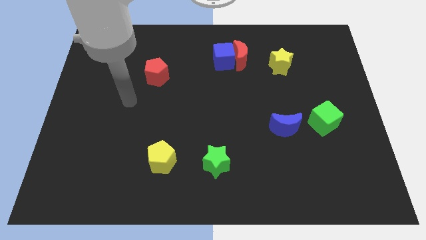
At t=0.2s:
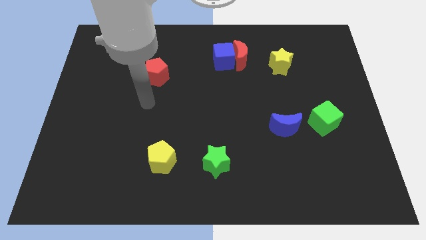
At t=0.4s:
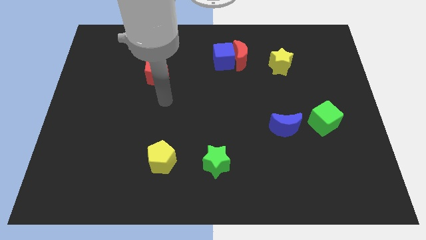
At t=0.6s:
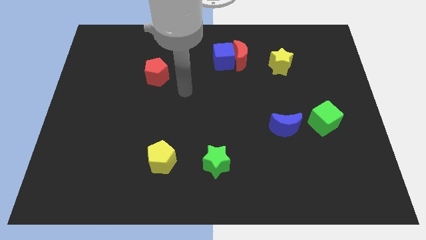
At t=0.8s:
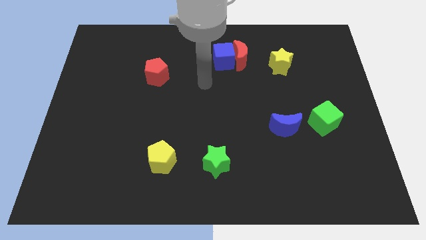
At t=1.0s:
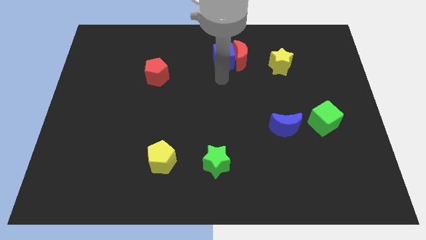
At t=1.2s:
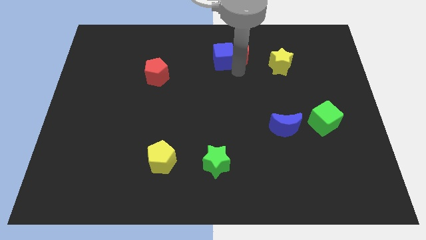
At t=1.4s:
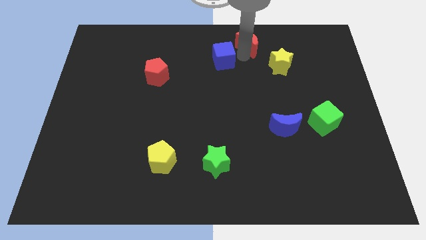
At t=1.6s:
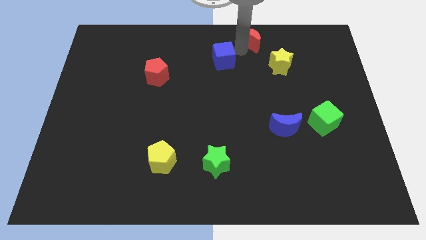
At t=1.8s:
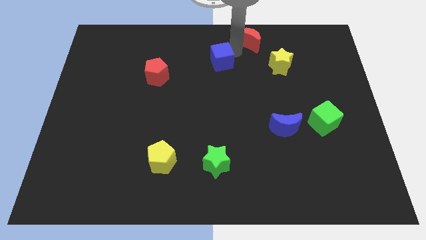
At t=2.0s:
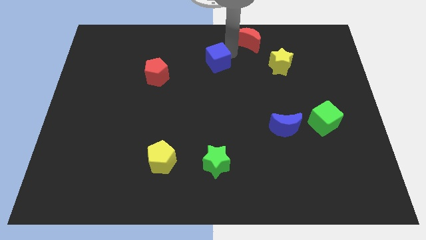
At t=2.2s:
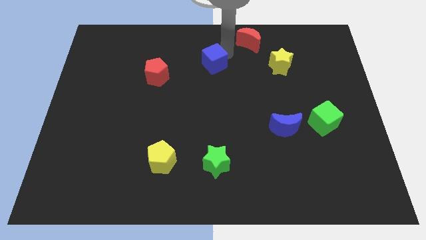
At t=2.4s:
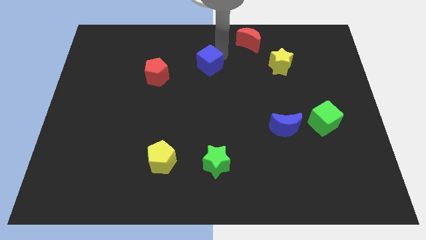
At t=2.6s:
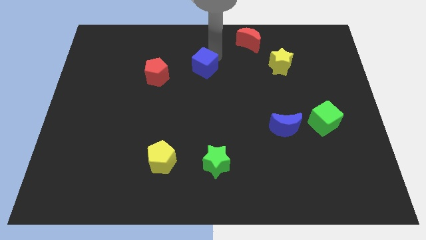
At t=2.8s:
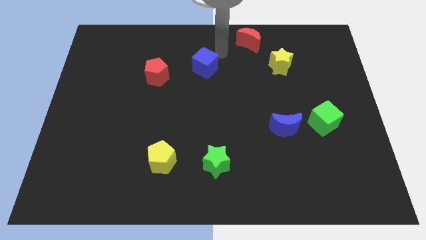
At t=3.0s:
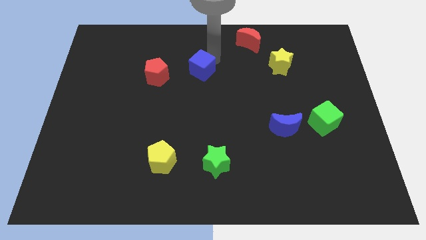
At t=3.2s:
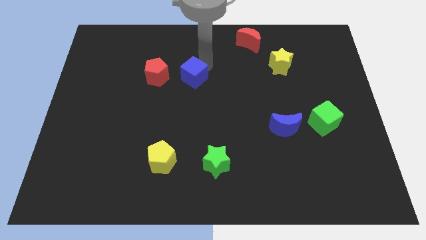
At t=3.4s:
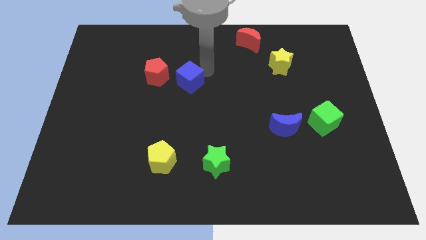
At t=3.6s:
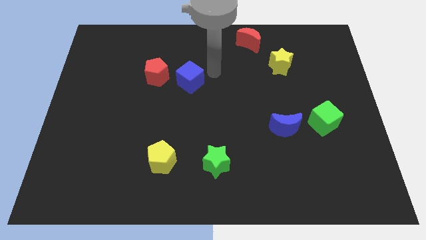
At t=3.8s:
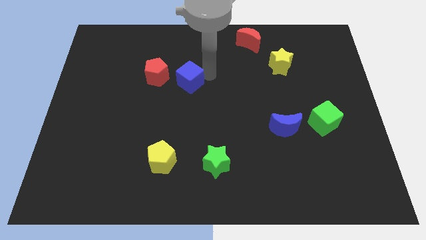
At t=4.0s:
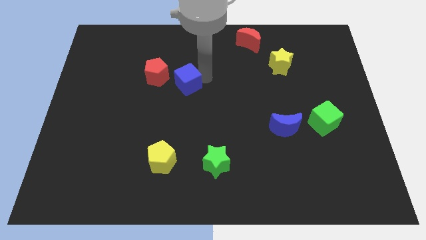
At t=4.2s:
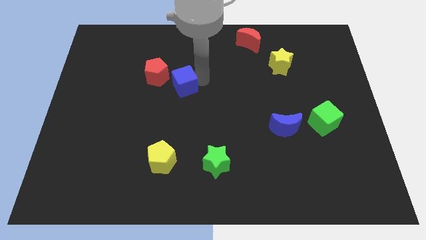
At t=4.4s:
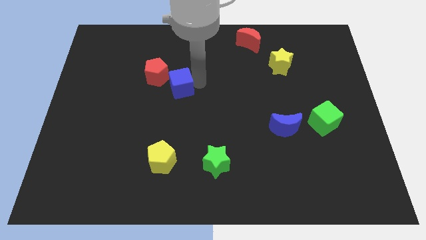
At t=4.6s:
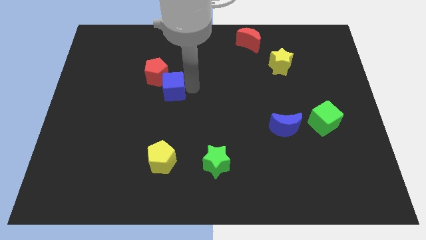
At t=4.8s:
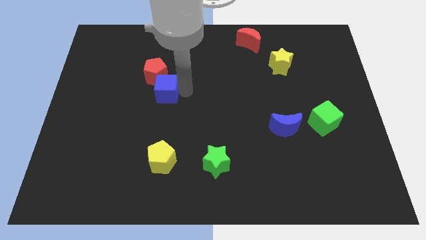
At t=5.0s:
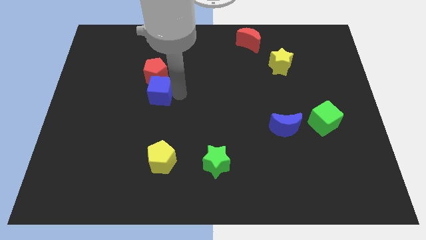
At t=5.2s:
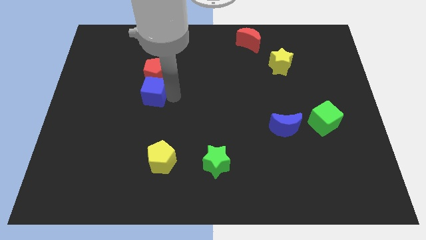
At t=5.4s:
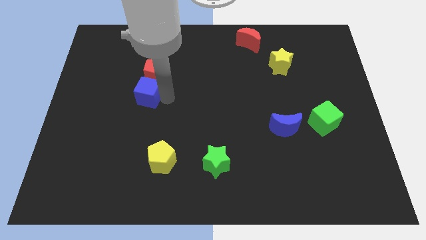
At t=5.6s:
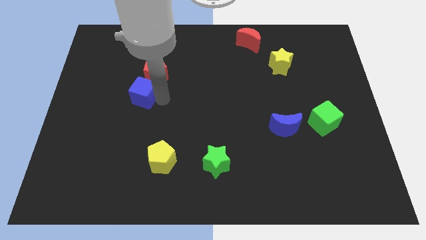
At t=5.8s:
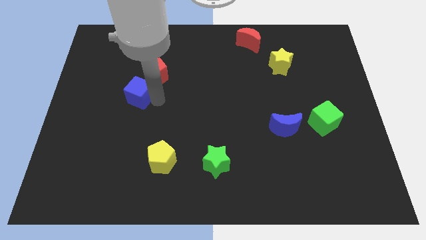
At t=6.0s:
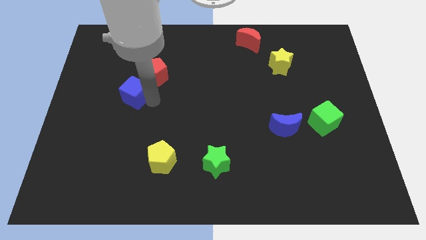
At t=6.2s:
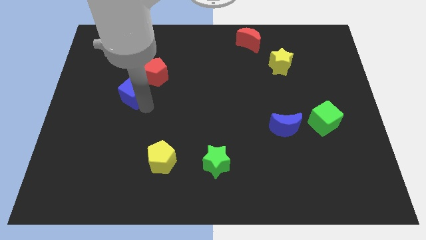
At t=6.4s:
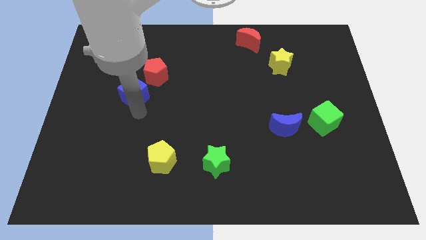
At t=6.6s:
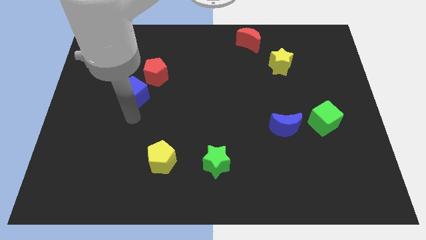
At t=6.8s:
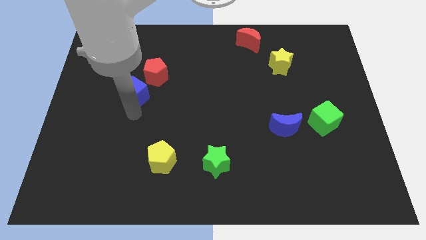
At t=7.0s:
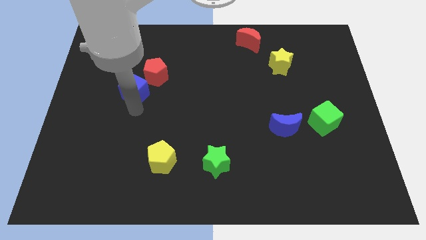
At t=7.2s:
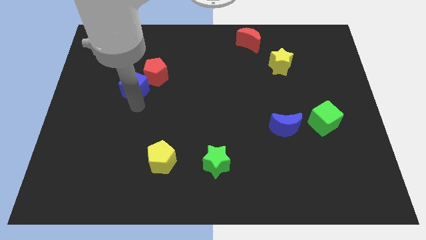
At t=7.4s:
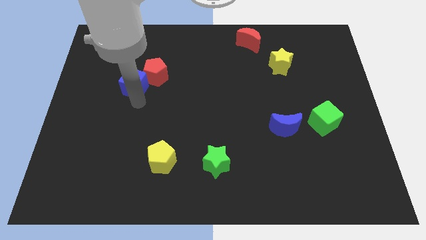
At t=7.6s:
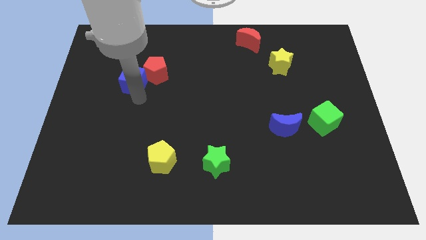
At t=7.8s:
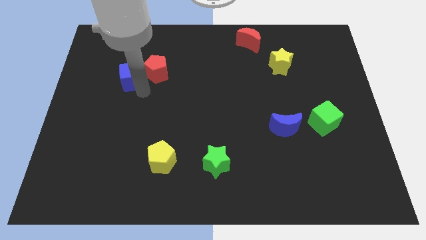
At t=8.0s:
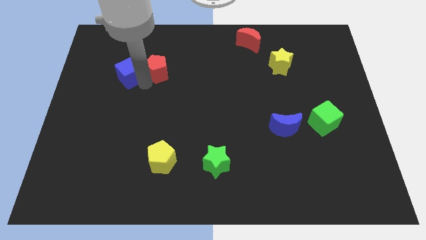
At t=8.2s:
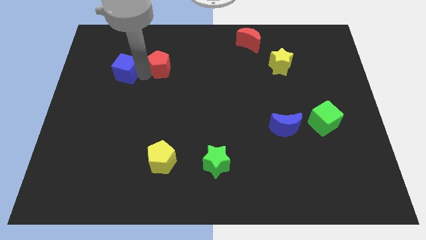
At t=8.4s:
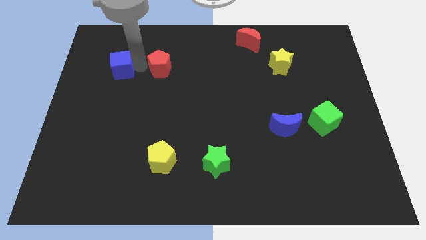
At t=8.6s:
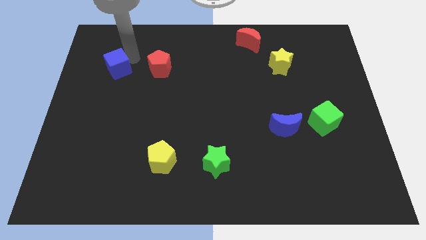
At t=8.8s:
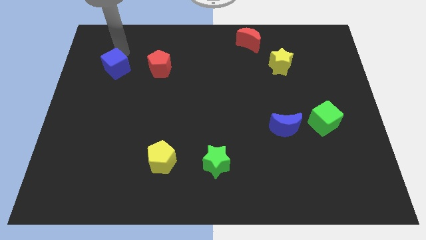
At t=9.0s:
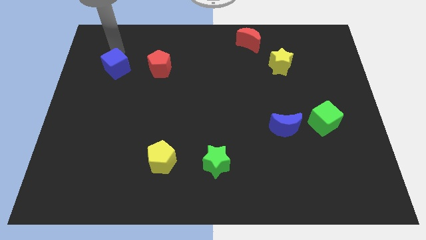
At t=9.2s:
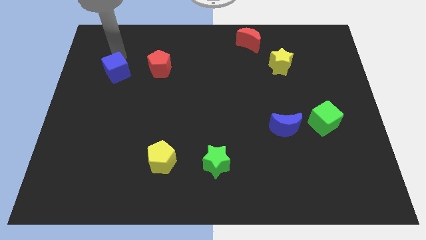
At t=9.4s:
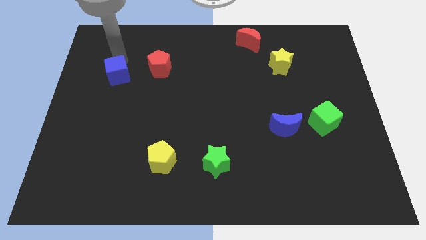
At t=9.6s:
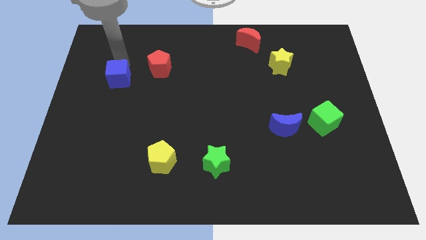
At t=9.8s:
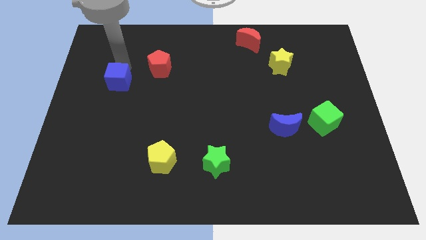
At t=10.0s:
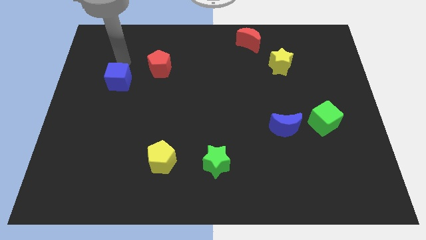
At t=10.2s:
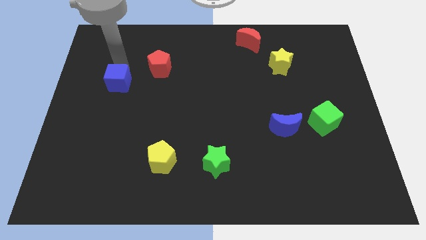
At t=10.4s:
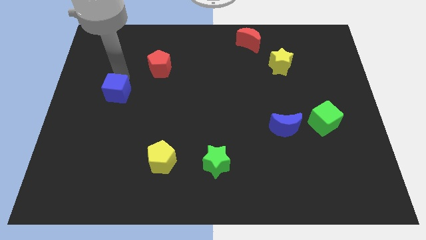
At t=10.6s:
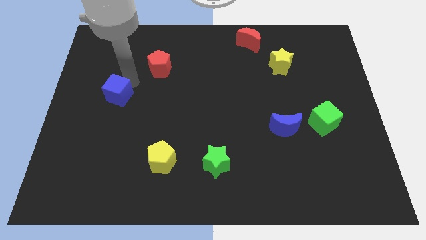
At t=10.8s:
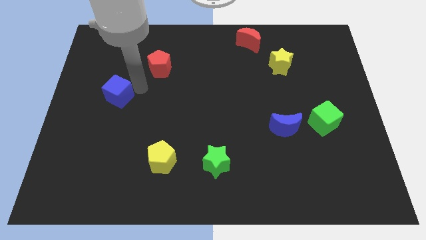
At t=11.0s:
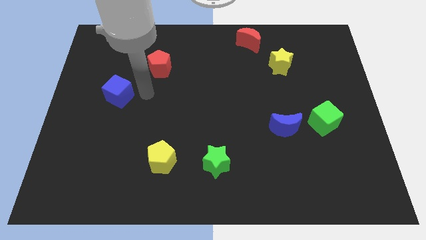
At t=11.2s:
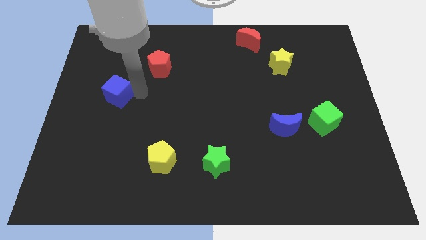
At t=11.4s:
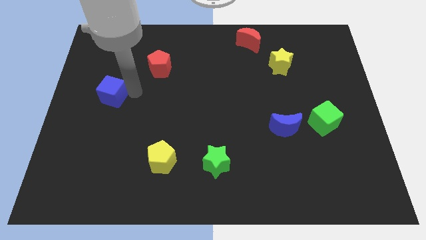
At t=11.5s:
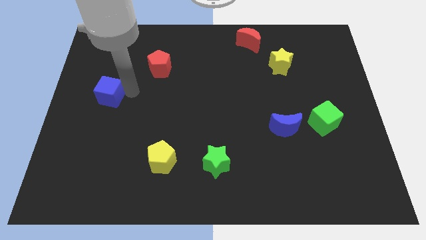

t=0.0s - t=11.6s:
push the blue cube to the left side

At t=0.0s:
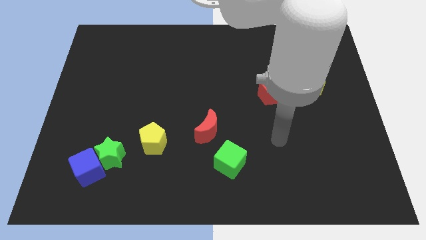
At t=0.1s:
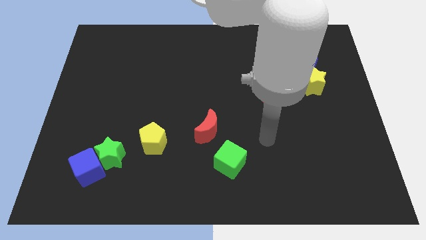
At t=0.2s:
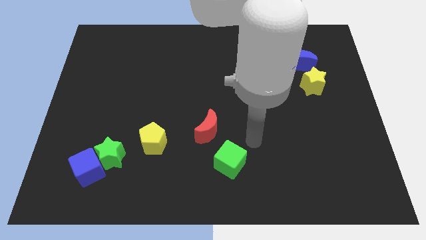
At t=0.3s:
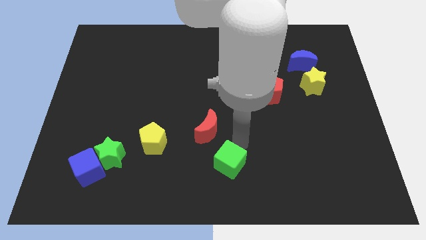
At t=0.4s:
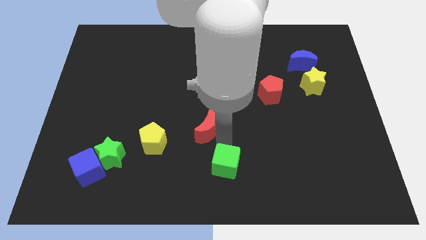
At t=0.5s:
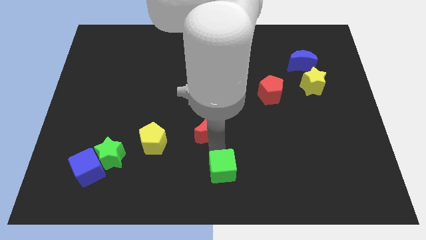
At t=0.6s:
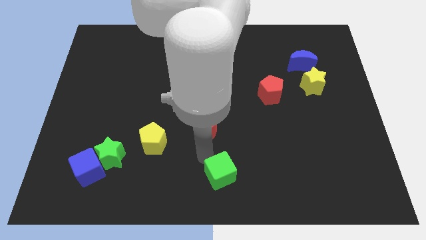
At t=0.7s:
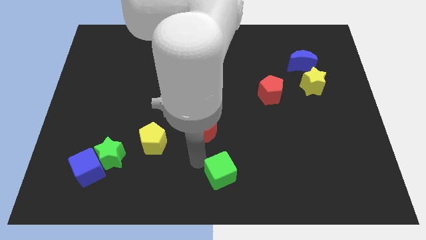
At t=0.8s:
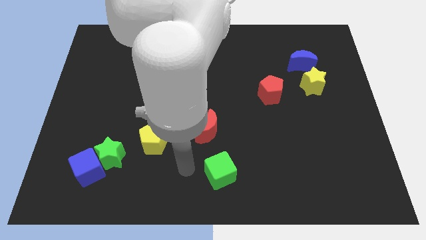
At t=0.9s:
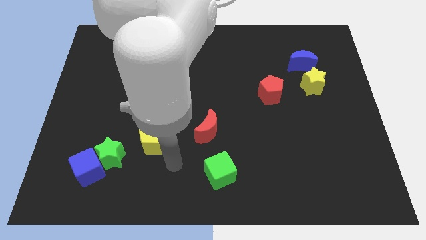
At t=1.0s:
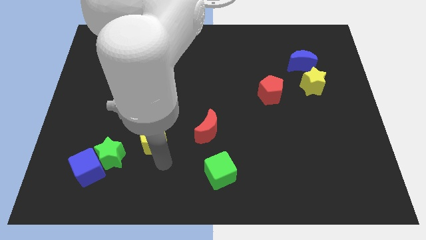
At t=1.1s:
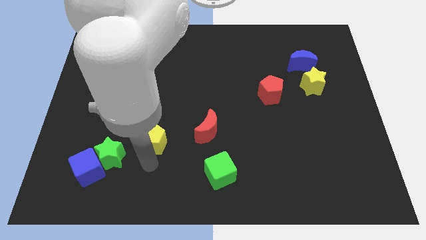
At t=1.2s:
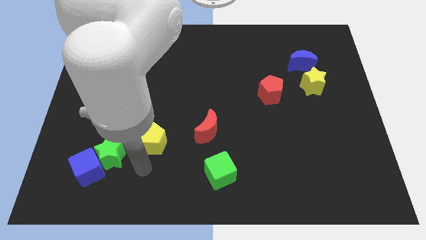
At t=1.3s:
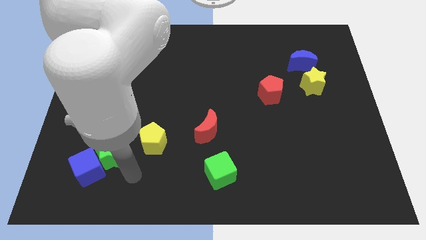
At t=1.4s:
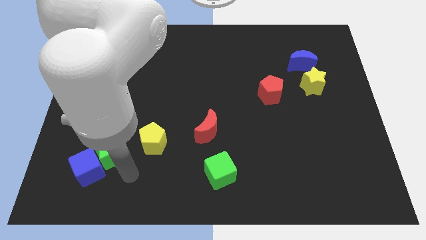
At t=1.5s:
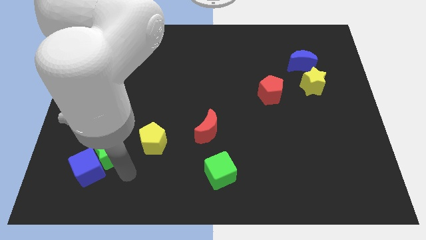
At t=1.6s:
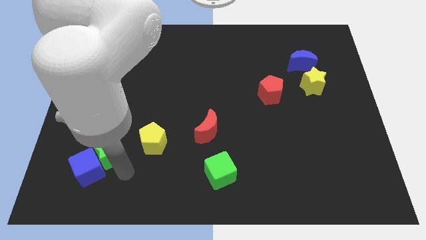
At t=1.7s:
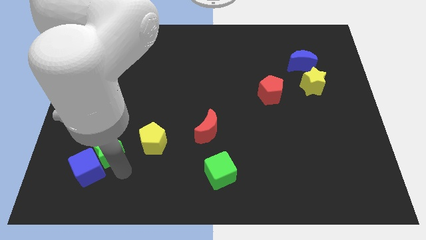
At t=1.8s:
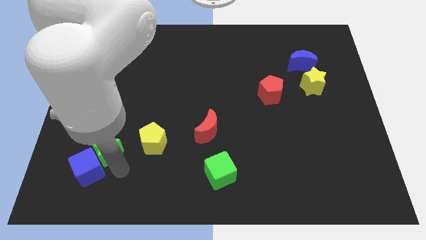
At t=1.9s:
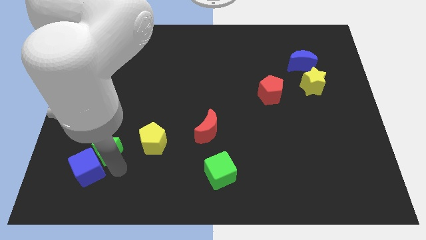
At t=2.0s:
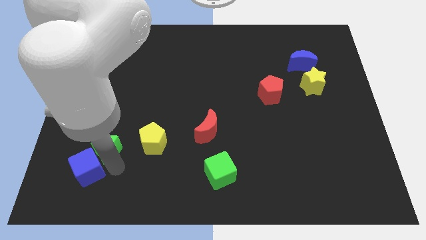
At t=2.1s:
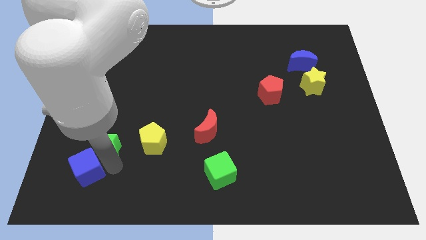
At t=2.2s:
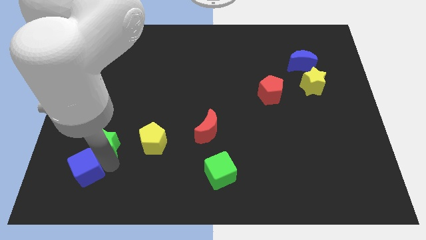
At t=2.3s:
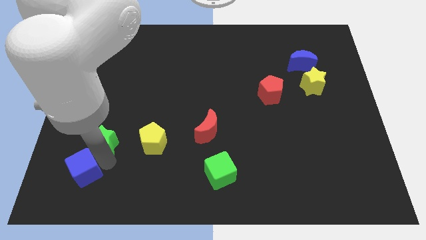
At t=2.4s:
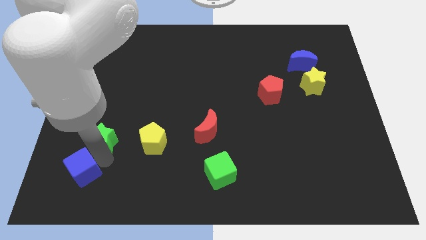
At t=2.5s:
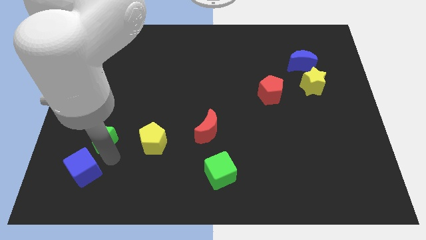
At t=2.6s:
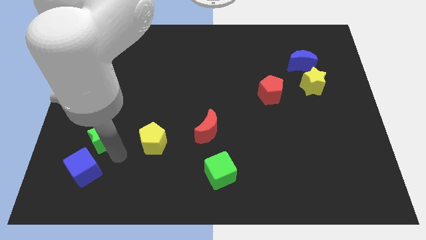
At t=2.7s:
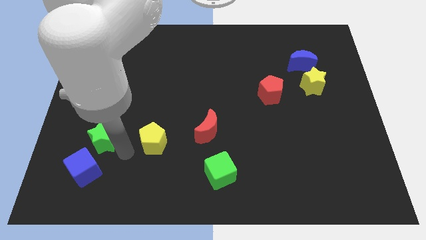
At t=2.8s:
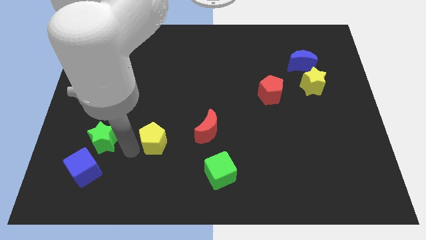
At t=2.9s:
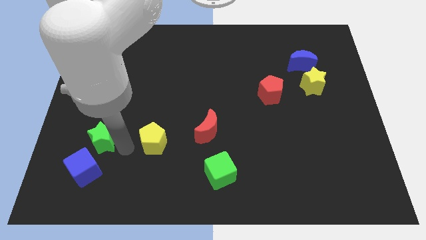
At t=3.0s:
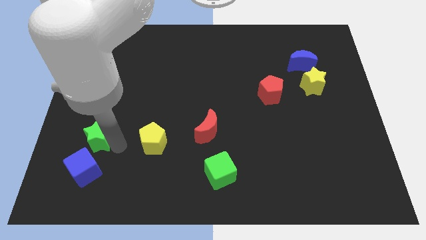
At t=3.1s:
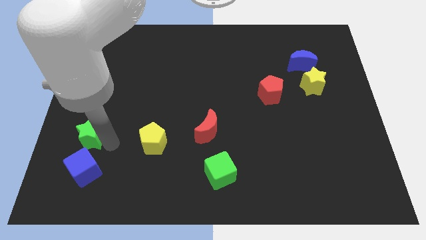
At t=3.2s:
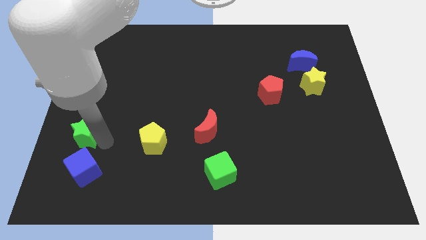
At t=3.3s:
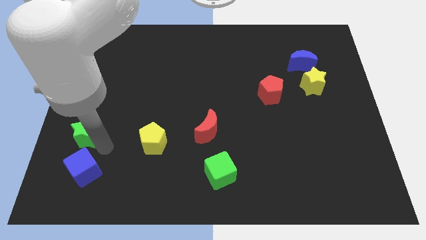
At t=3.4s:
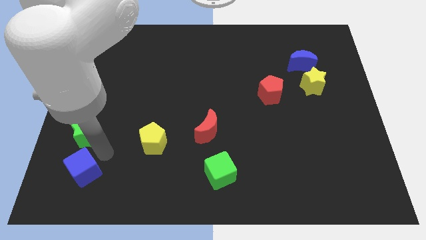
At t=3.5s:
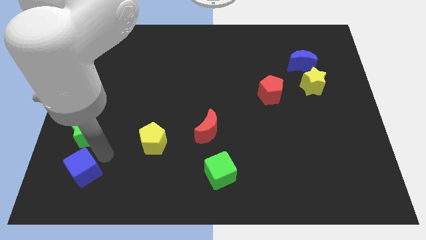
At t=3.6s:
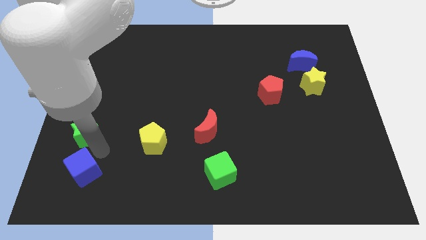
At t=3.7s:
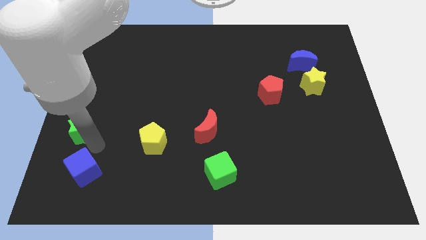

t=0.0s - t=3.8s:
put the green star to the left side of the board
